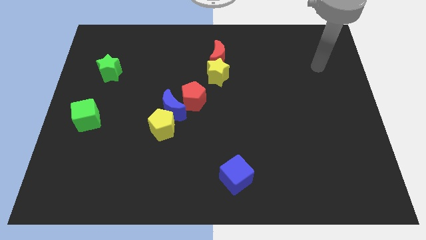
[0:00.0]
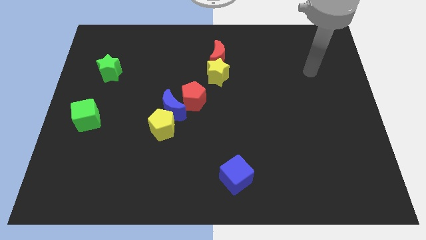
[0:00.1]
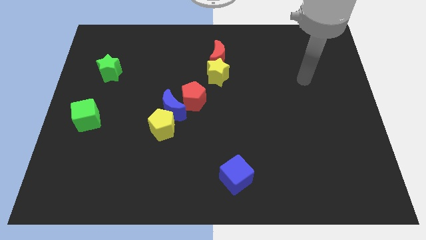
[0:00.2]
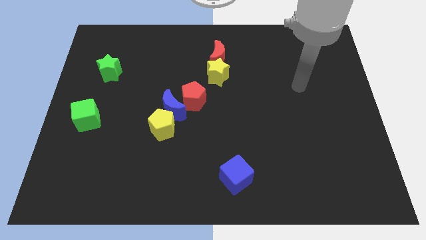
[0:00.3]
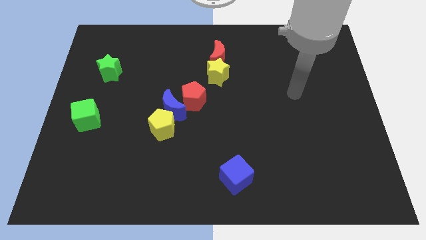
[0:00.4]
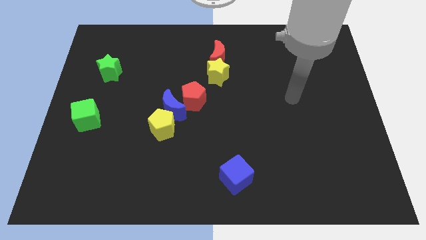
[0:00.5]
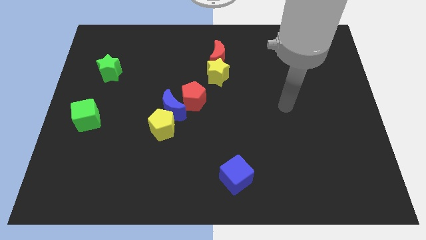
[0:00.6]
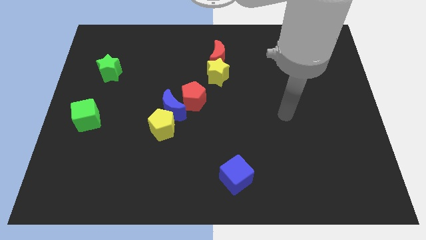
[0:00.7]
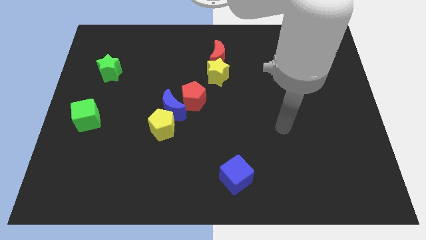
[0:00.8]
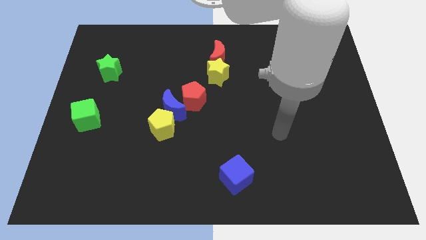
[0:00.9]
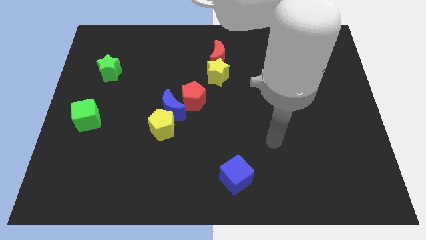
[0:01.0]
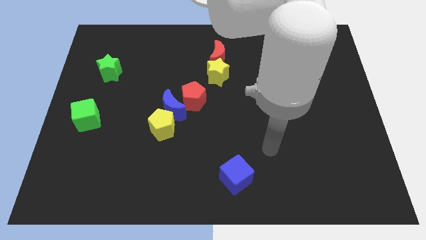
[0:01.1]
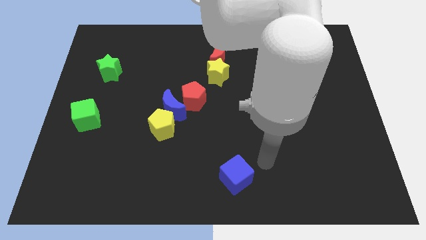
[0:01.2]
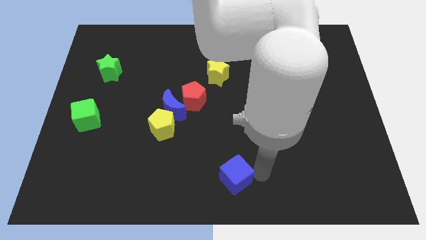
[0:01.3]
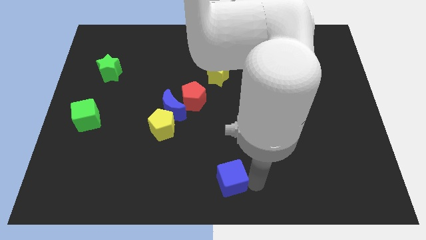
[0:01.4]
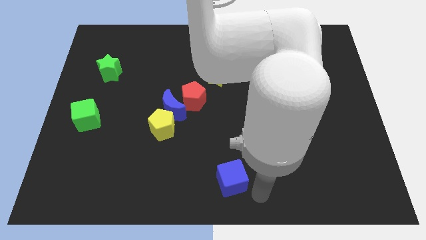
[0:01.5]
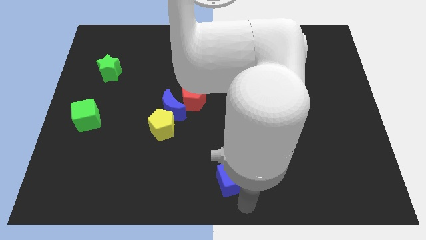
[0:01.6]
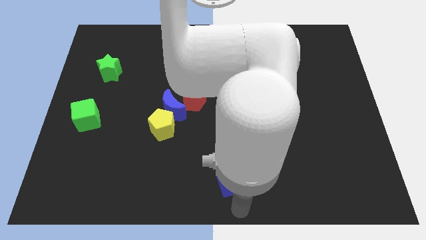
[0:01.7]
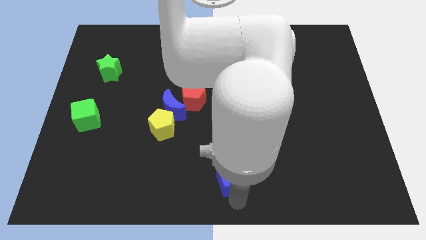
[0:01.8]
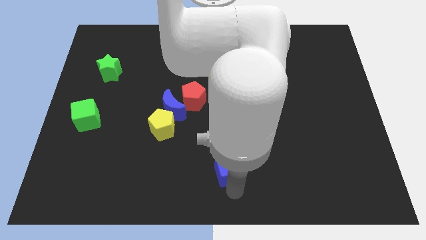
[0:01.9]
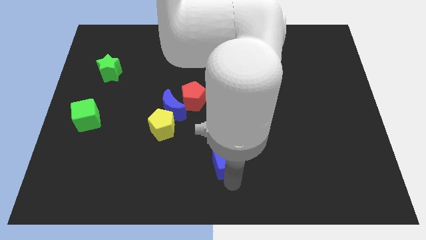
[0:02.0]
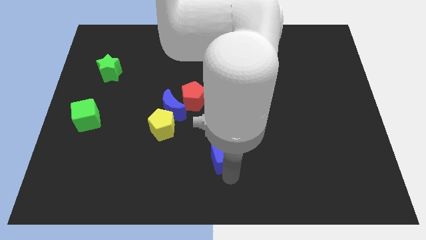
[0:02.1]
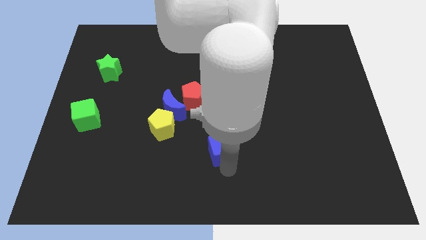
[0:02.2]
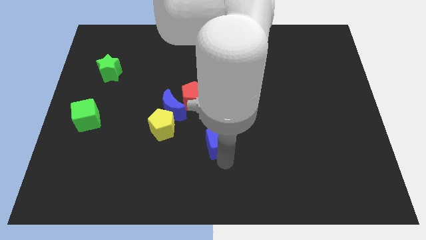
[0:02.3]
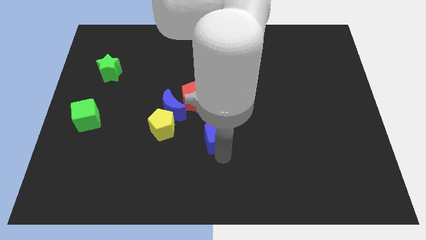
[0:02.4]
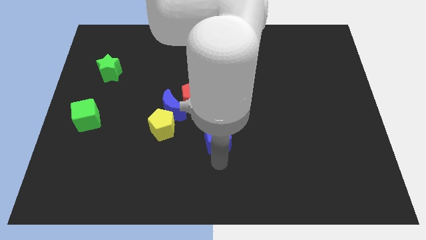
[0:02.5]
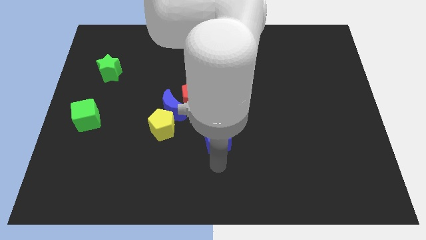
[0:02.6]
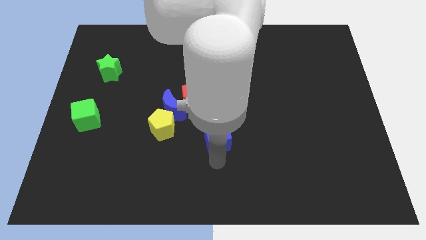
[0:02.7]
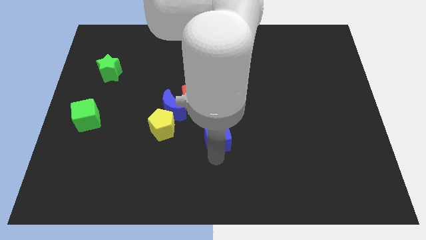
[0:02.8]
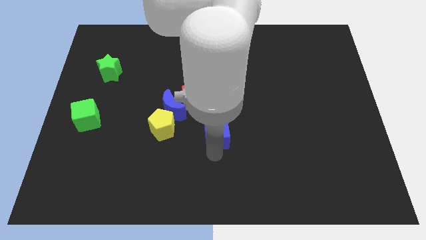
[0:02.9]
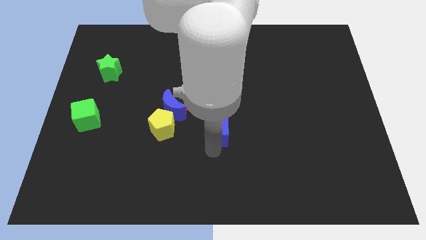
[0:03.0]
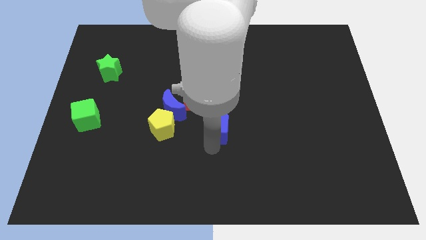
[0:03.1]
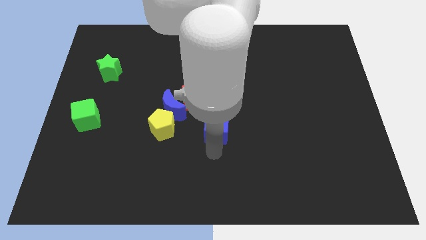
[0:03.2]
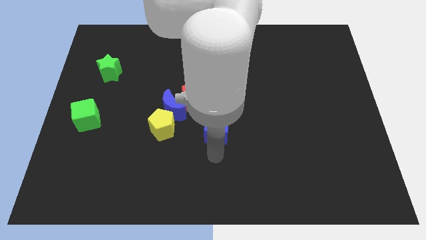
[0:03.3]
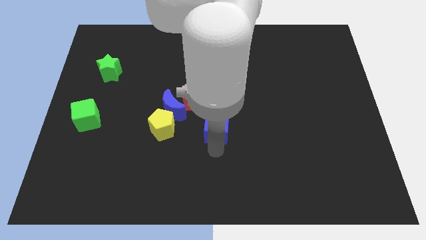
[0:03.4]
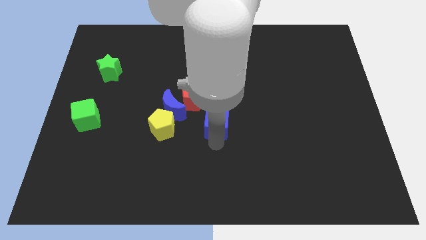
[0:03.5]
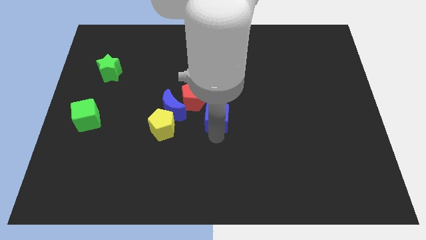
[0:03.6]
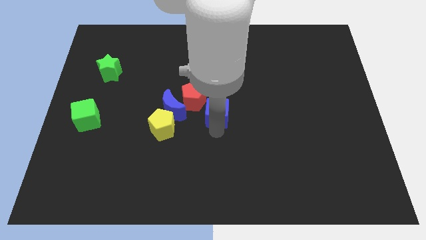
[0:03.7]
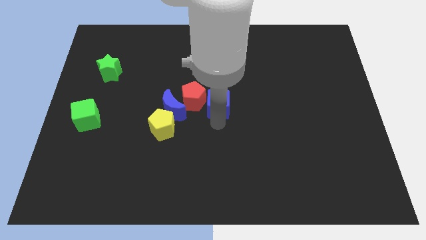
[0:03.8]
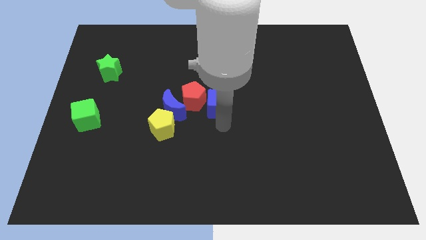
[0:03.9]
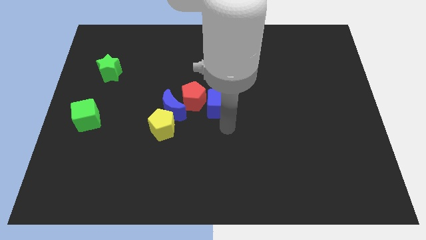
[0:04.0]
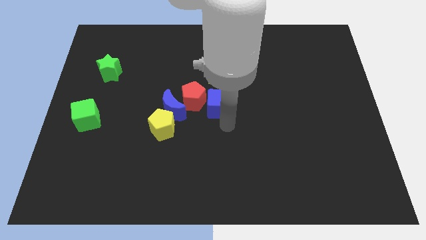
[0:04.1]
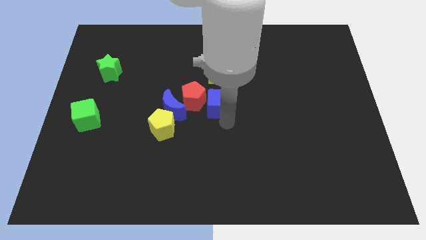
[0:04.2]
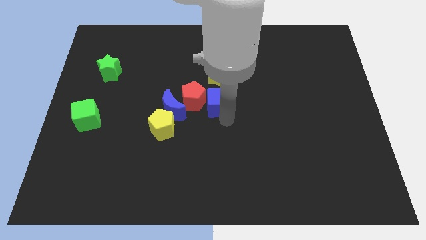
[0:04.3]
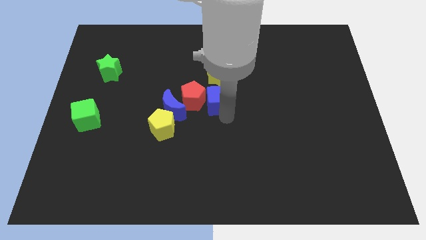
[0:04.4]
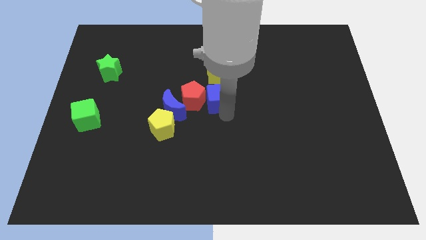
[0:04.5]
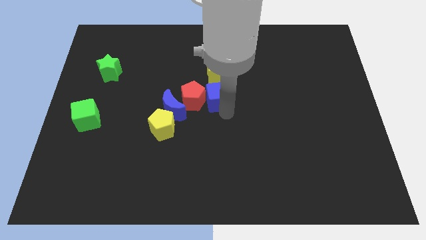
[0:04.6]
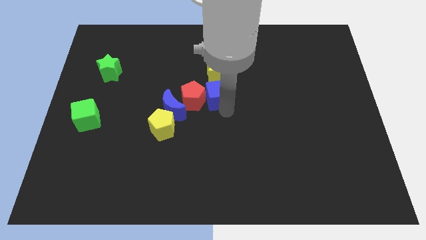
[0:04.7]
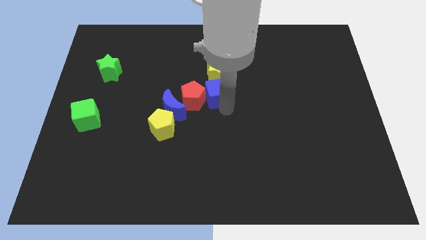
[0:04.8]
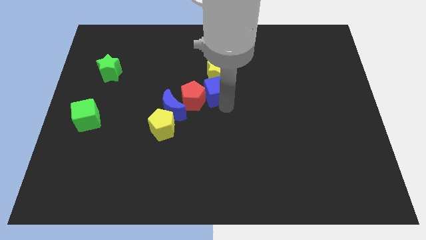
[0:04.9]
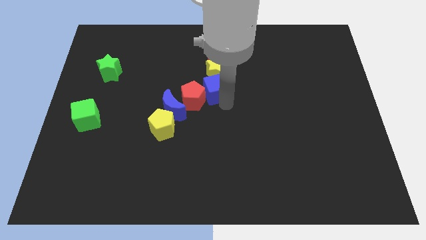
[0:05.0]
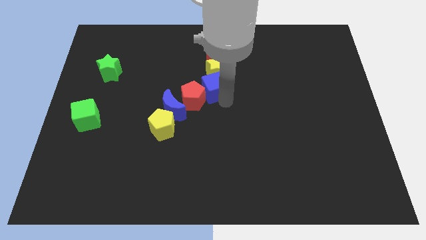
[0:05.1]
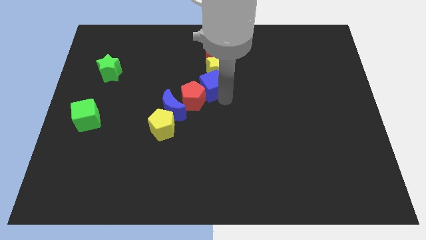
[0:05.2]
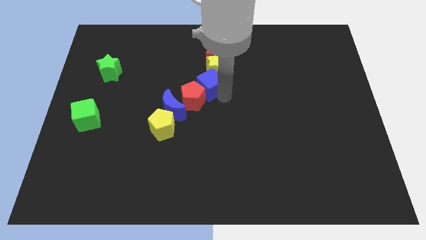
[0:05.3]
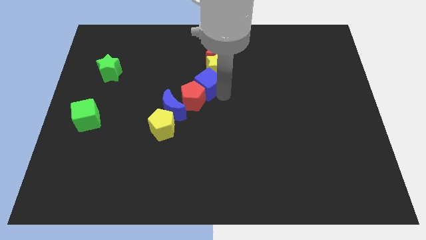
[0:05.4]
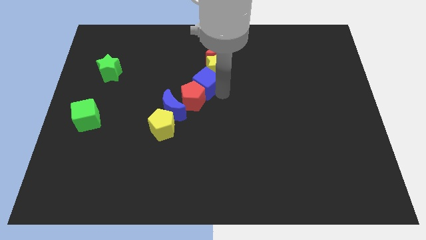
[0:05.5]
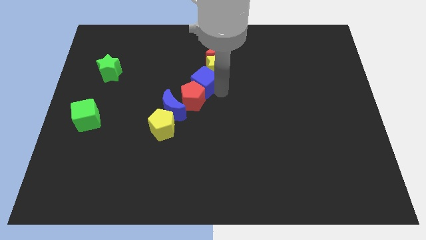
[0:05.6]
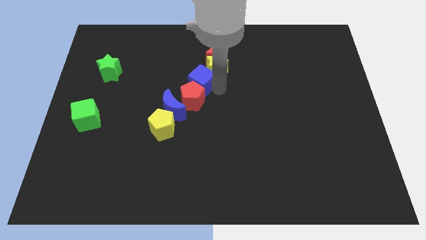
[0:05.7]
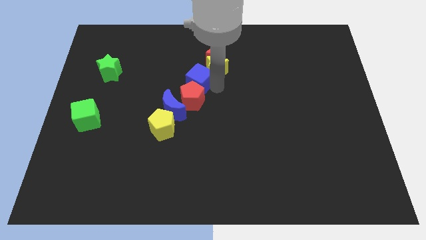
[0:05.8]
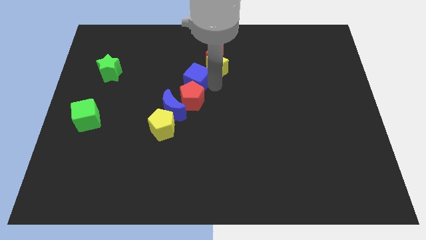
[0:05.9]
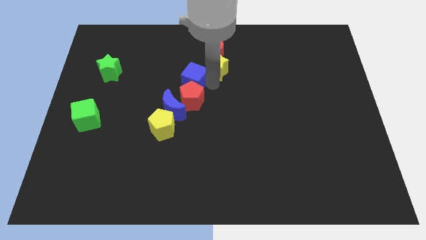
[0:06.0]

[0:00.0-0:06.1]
slide the blue cube to the top of the blue moon

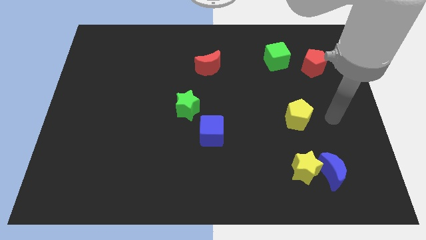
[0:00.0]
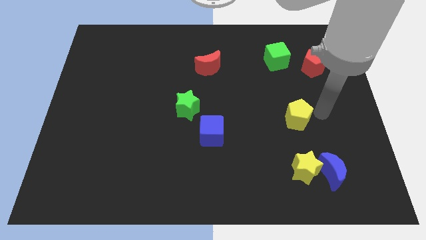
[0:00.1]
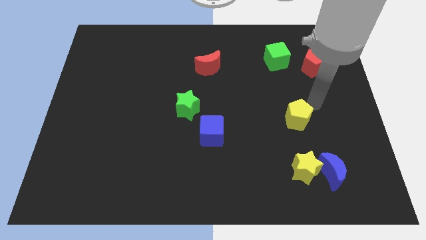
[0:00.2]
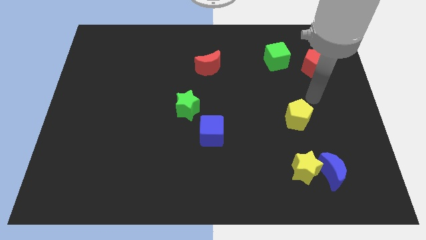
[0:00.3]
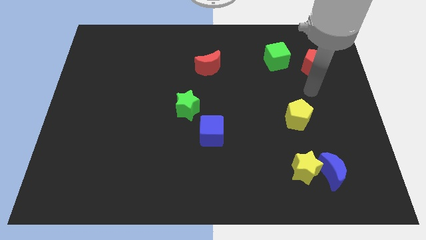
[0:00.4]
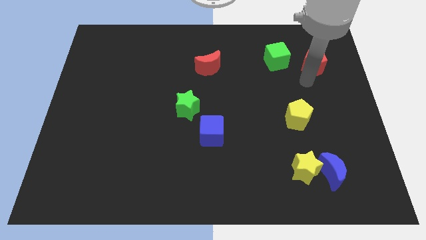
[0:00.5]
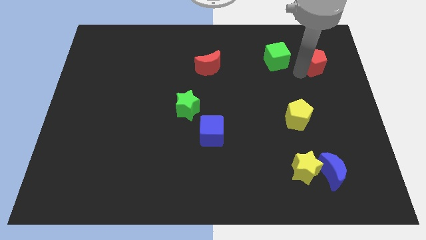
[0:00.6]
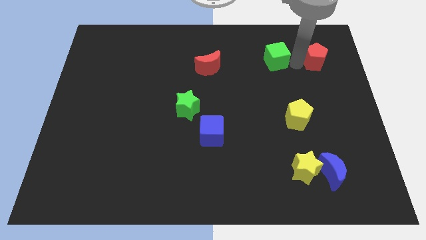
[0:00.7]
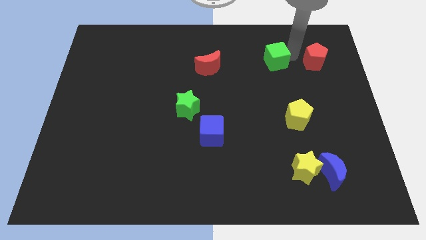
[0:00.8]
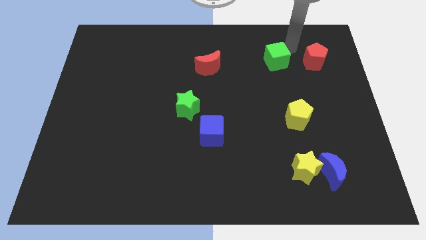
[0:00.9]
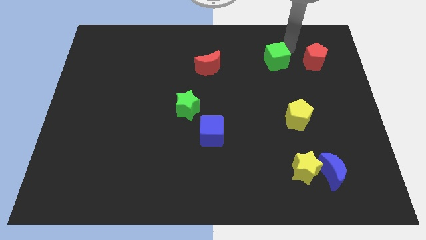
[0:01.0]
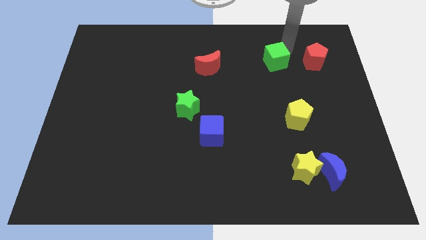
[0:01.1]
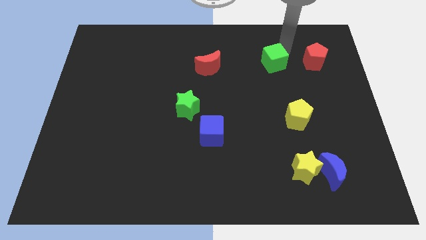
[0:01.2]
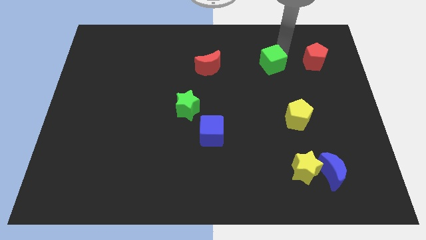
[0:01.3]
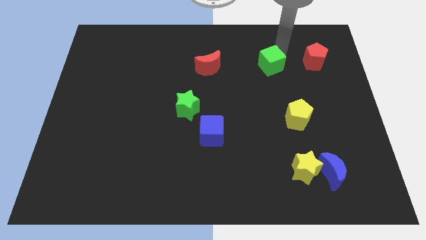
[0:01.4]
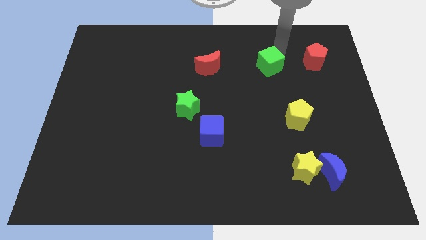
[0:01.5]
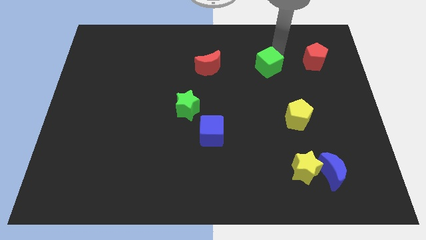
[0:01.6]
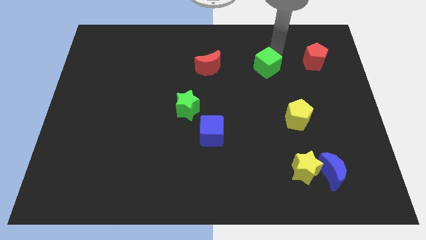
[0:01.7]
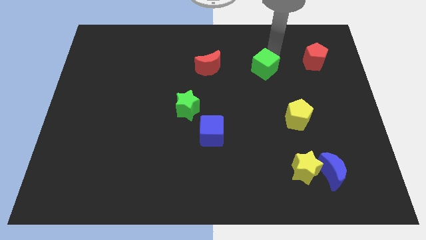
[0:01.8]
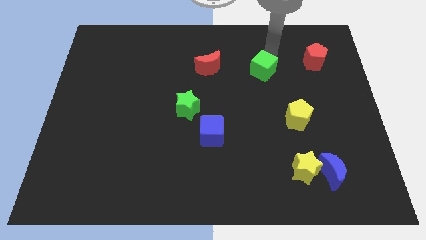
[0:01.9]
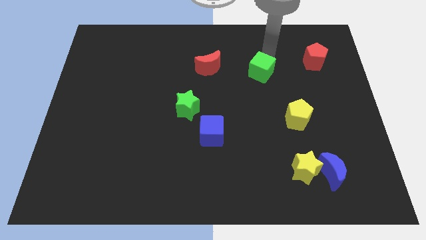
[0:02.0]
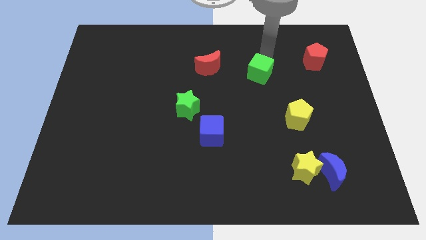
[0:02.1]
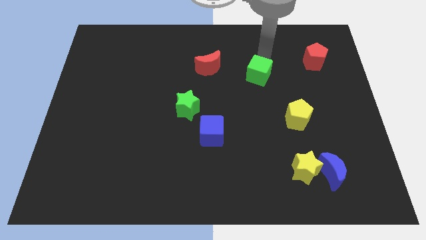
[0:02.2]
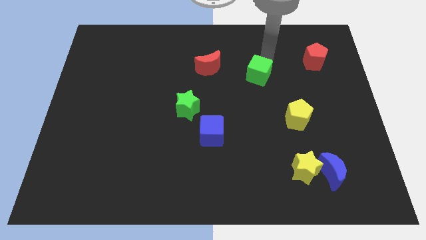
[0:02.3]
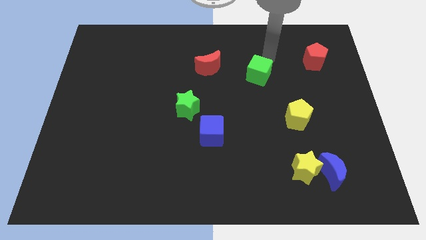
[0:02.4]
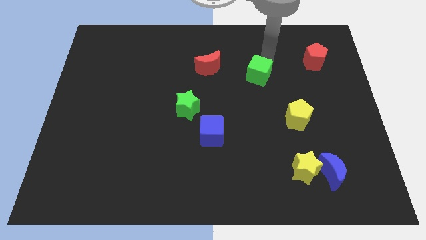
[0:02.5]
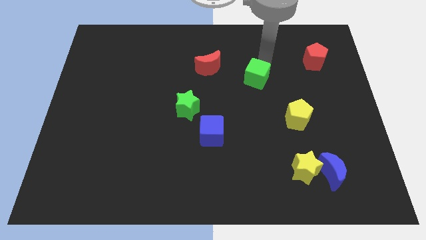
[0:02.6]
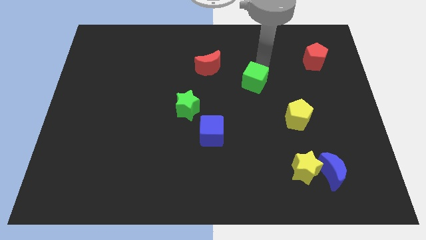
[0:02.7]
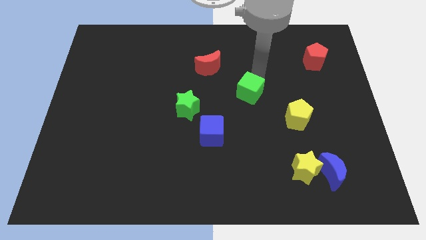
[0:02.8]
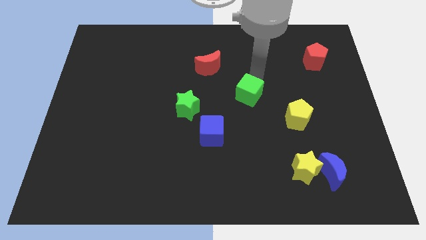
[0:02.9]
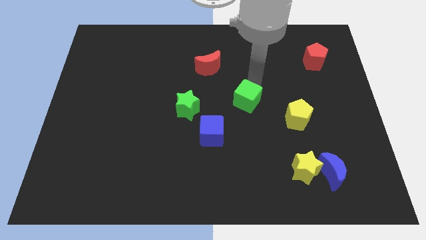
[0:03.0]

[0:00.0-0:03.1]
move the green cube to the right of the green star
